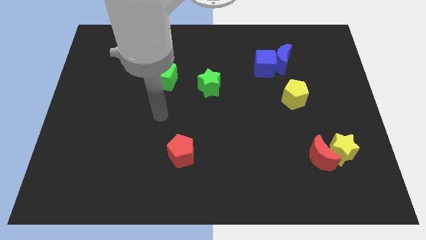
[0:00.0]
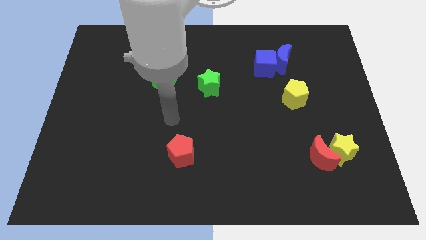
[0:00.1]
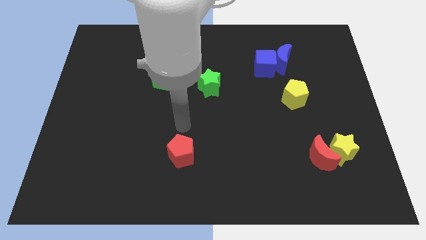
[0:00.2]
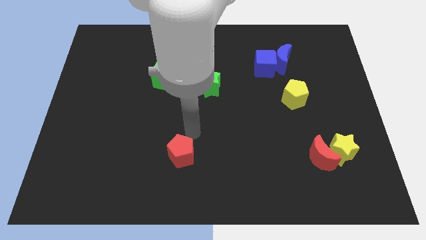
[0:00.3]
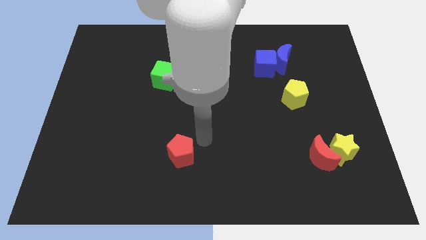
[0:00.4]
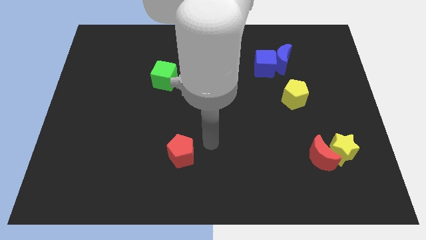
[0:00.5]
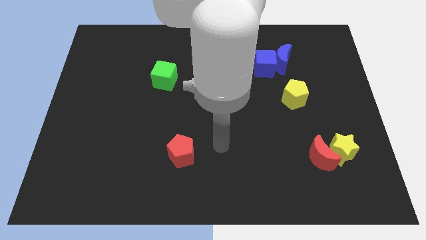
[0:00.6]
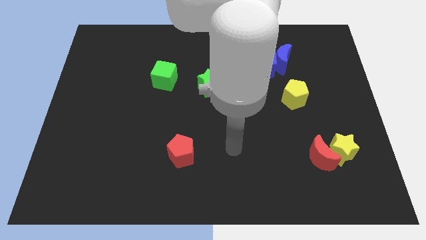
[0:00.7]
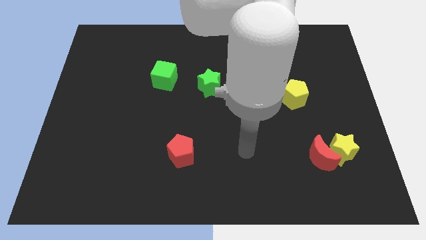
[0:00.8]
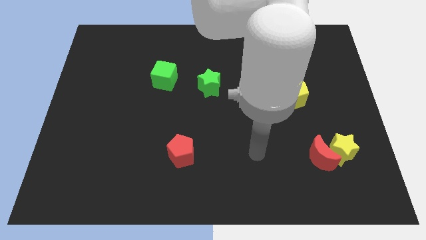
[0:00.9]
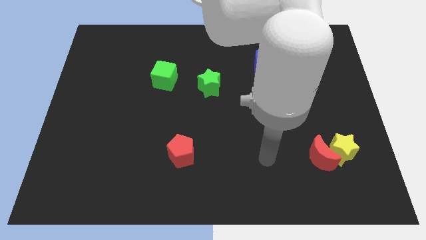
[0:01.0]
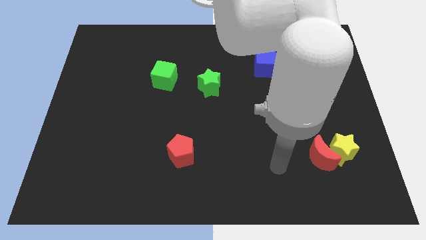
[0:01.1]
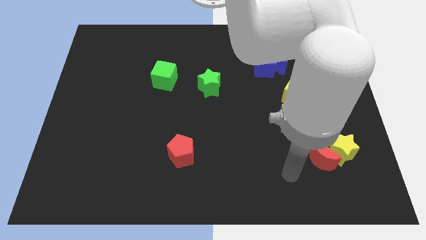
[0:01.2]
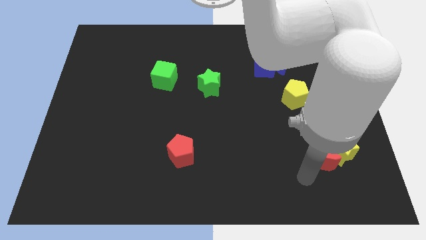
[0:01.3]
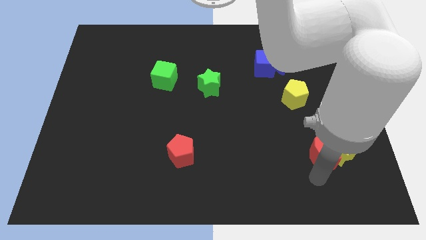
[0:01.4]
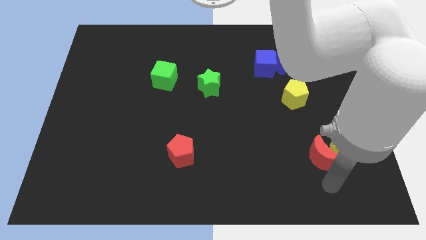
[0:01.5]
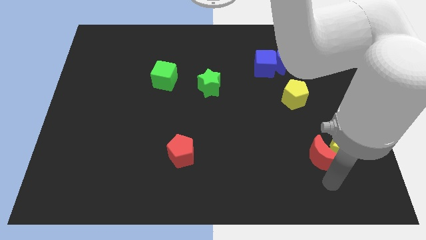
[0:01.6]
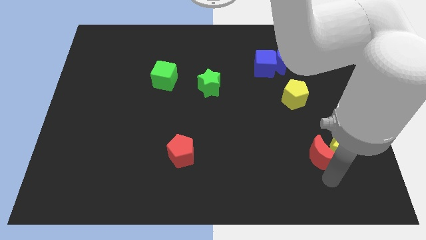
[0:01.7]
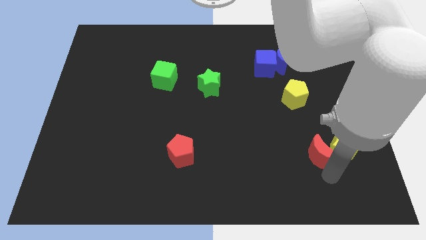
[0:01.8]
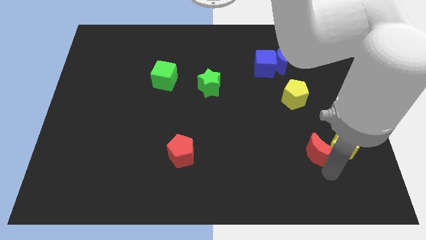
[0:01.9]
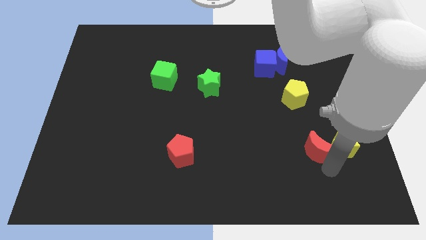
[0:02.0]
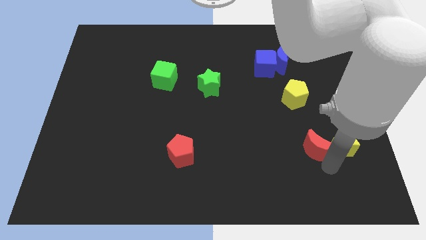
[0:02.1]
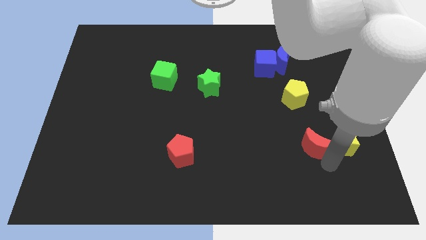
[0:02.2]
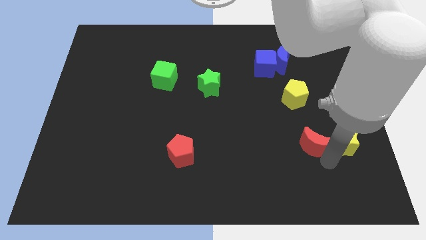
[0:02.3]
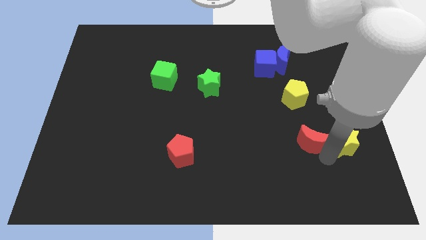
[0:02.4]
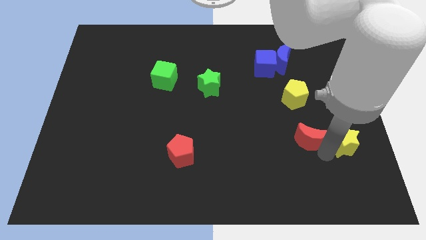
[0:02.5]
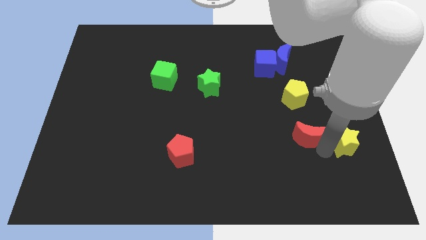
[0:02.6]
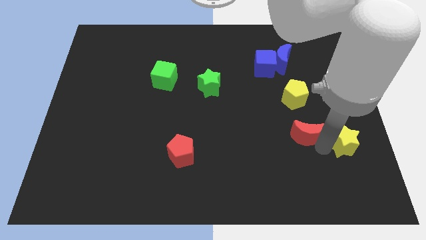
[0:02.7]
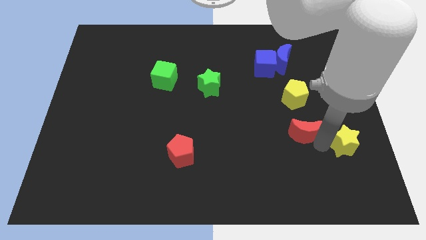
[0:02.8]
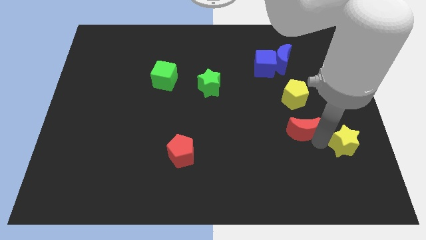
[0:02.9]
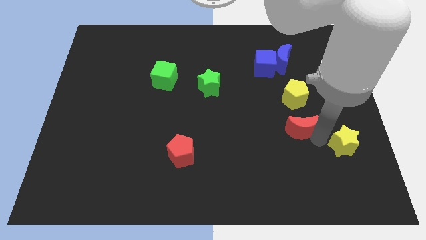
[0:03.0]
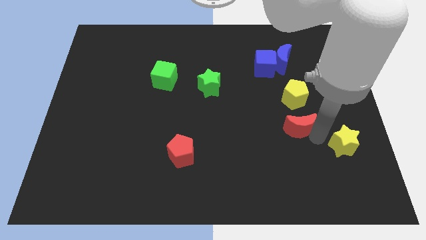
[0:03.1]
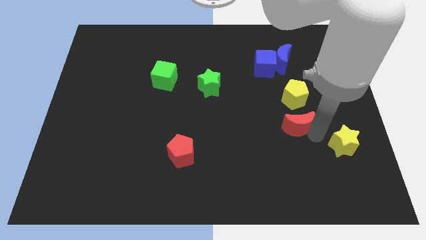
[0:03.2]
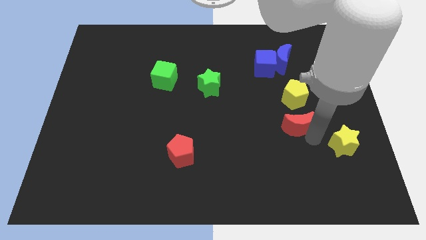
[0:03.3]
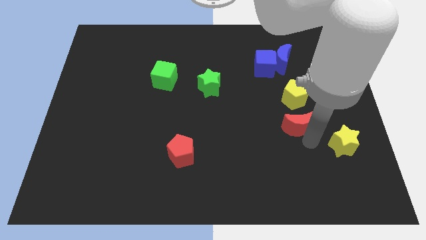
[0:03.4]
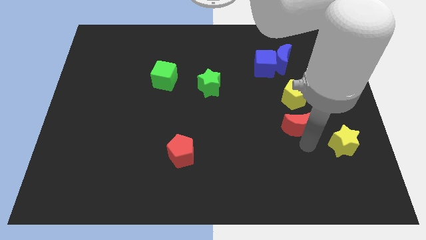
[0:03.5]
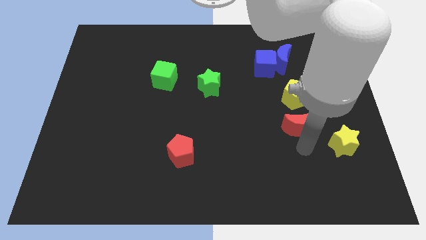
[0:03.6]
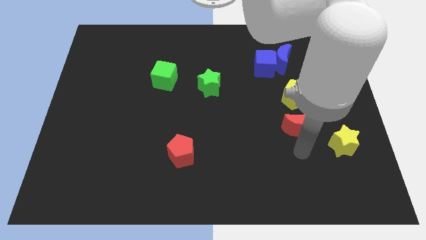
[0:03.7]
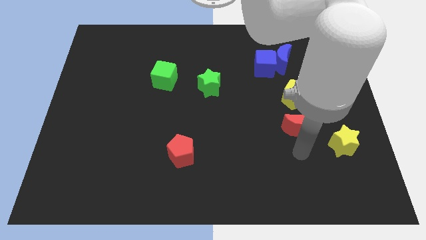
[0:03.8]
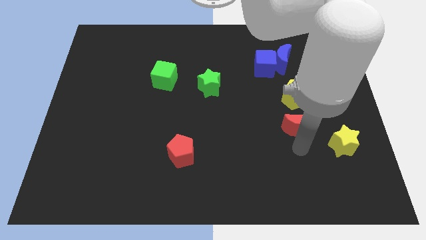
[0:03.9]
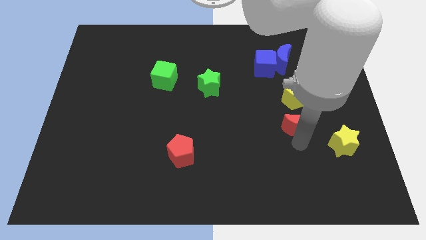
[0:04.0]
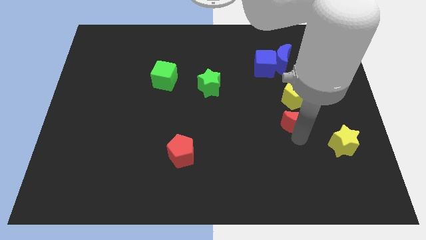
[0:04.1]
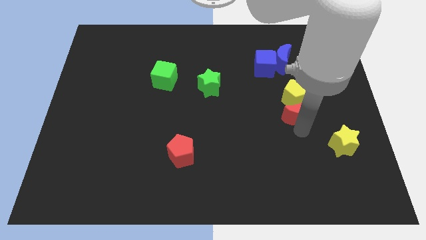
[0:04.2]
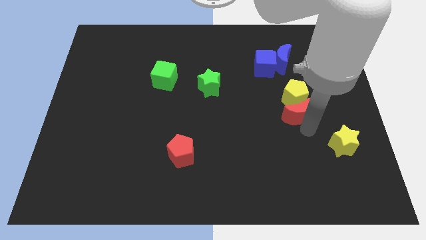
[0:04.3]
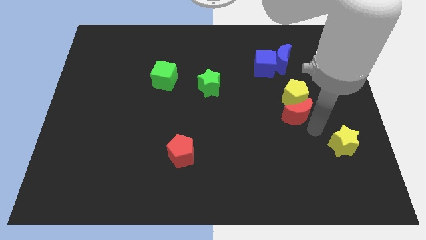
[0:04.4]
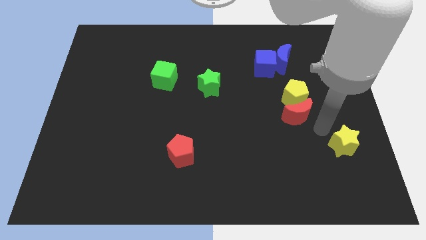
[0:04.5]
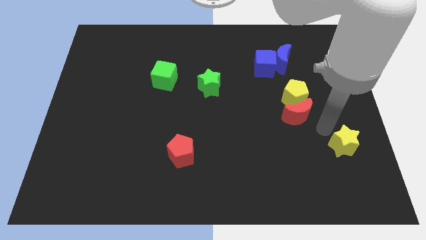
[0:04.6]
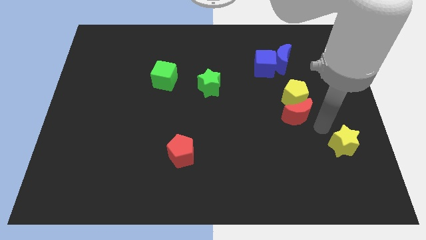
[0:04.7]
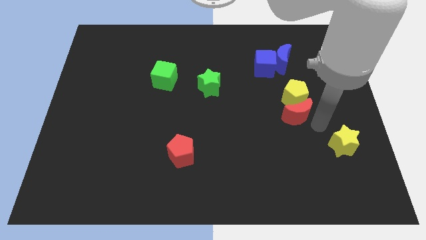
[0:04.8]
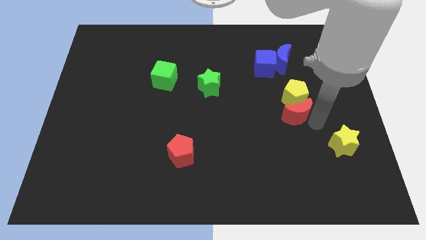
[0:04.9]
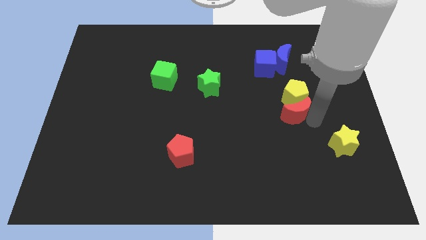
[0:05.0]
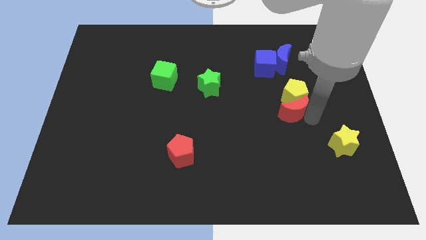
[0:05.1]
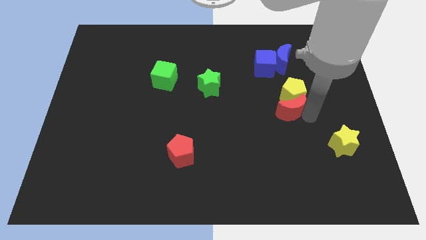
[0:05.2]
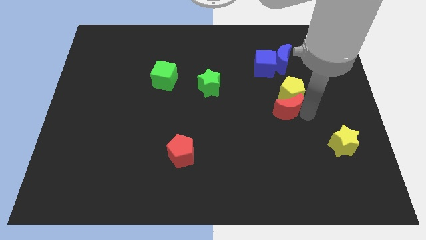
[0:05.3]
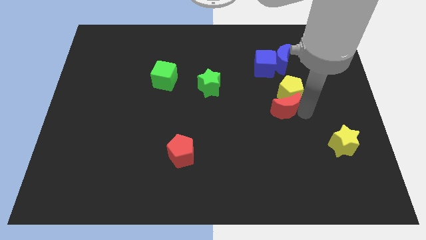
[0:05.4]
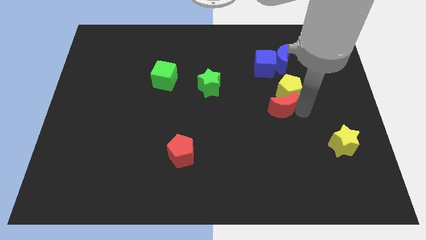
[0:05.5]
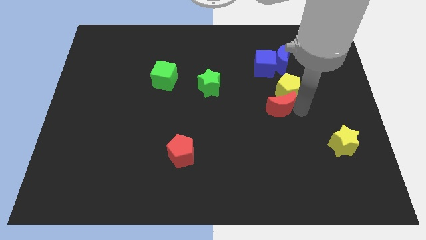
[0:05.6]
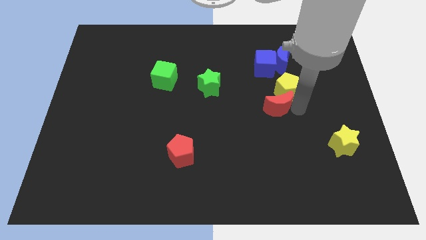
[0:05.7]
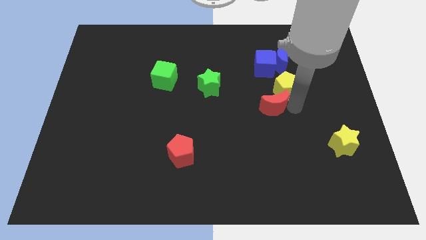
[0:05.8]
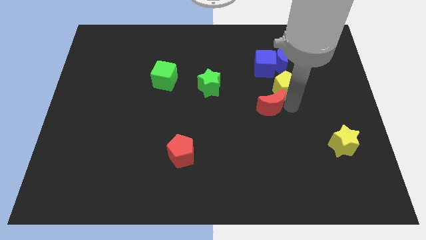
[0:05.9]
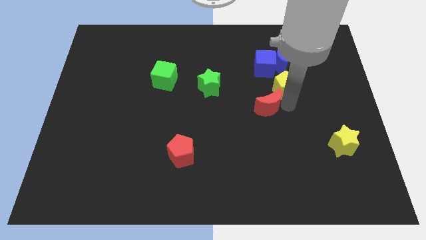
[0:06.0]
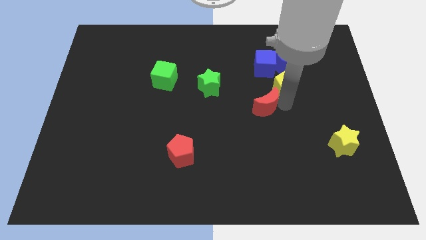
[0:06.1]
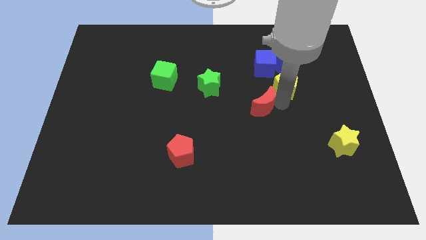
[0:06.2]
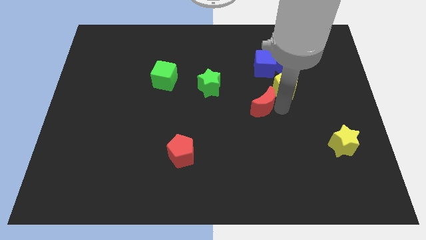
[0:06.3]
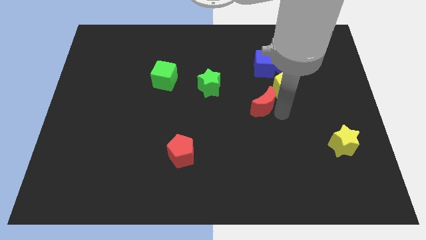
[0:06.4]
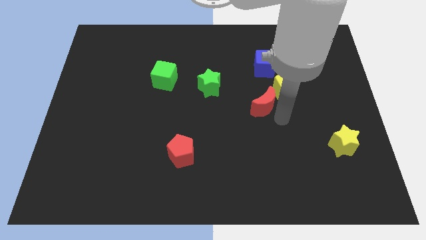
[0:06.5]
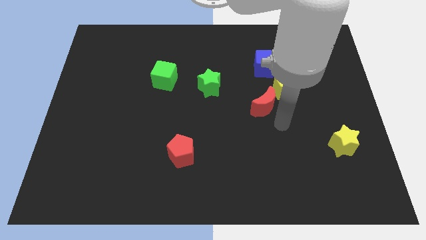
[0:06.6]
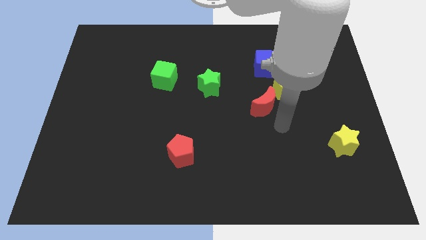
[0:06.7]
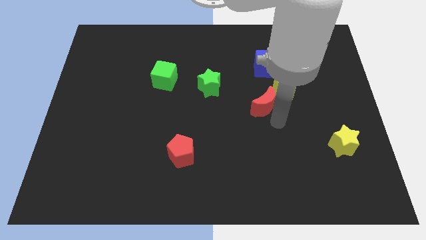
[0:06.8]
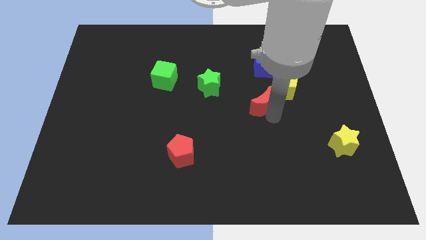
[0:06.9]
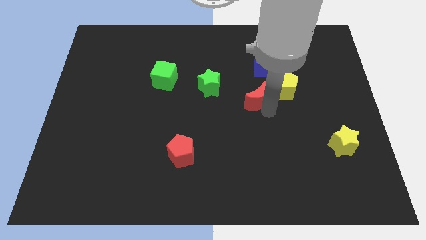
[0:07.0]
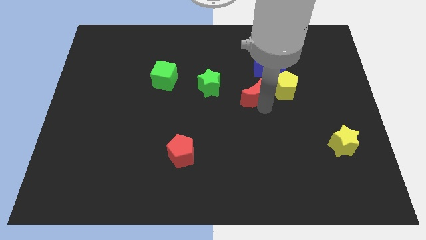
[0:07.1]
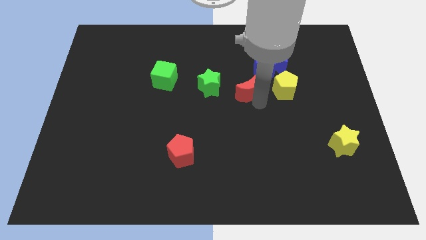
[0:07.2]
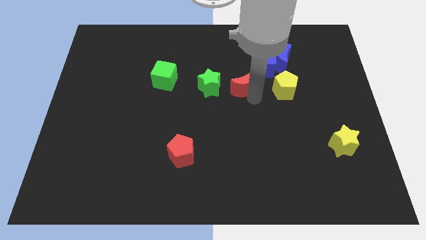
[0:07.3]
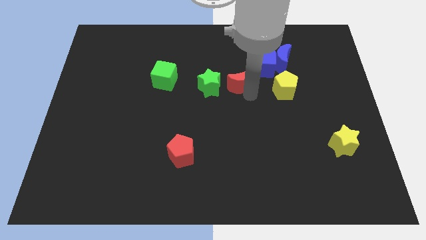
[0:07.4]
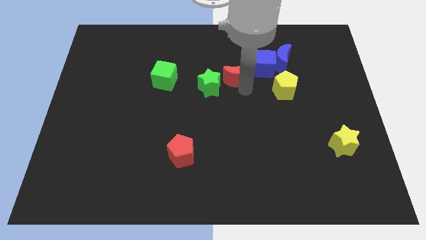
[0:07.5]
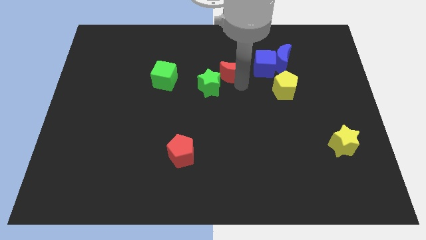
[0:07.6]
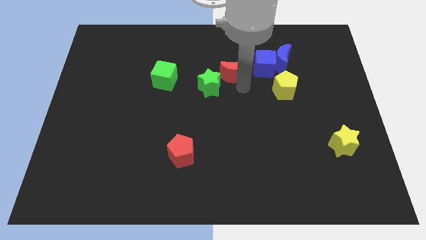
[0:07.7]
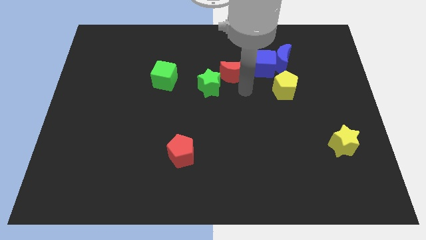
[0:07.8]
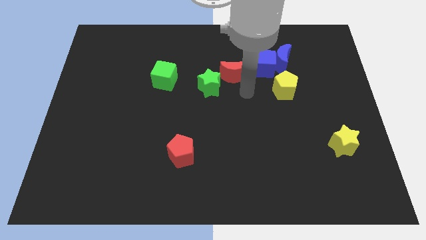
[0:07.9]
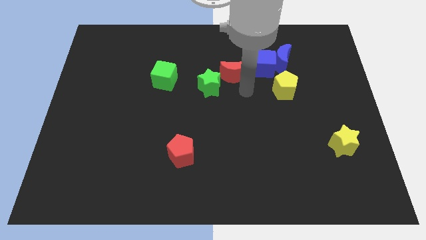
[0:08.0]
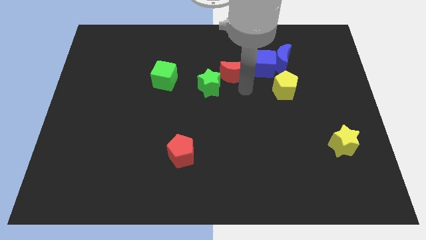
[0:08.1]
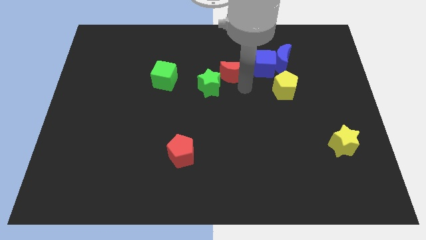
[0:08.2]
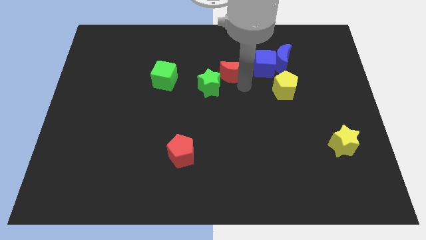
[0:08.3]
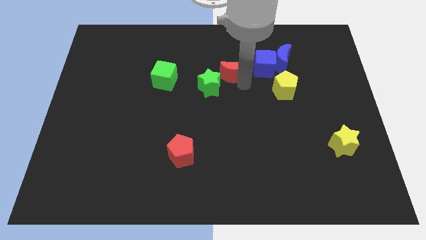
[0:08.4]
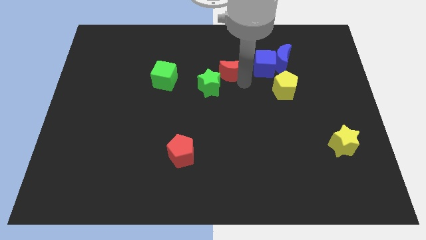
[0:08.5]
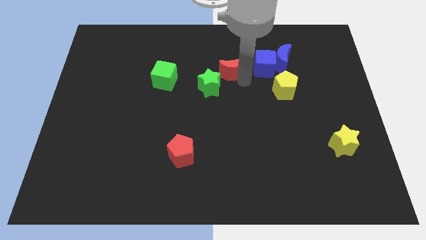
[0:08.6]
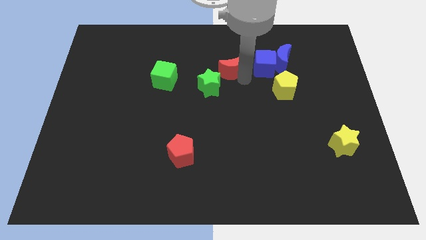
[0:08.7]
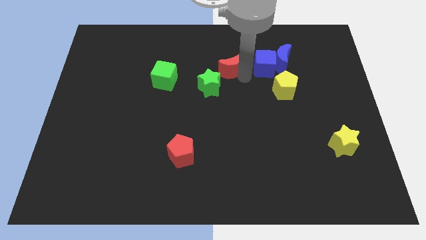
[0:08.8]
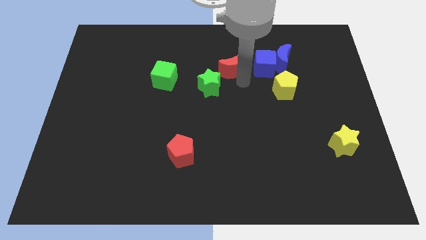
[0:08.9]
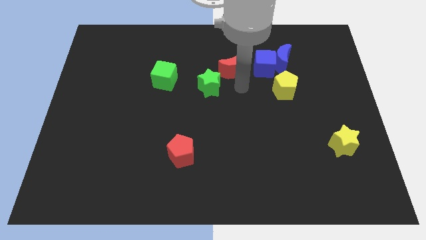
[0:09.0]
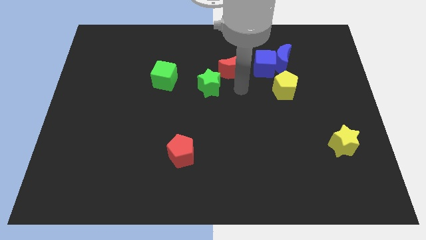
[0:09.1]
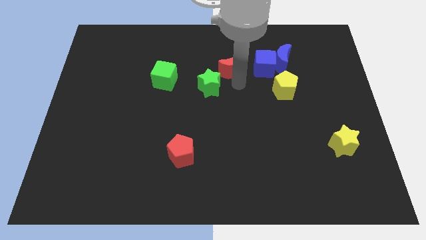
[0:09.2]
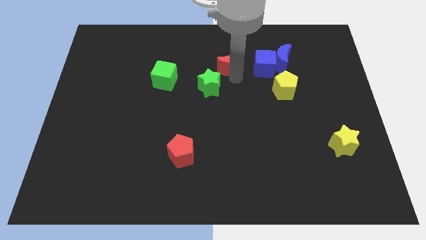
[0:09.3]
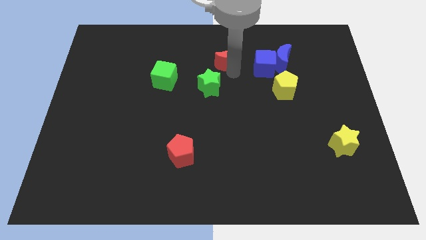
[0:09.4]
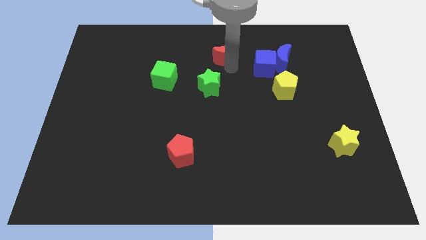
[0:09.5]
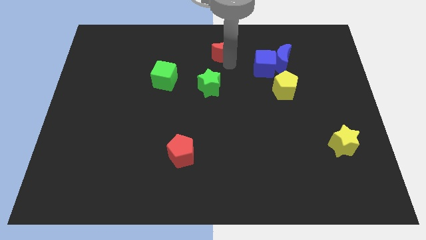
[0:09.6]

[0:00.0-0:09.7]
push the red moon to the top side
